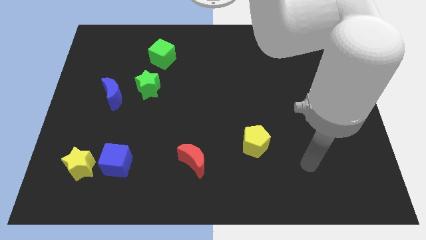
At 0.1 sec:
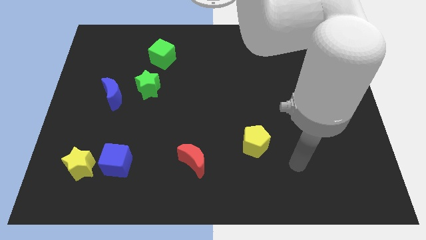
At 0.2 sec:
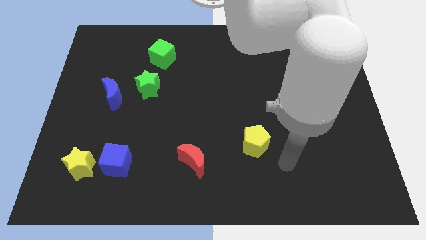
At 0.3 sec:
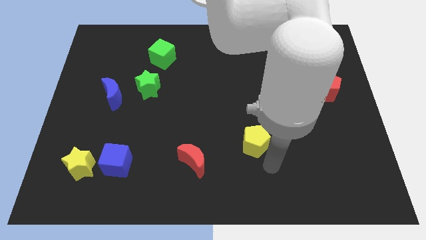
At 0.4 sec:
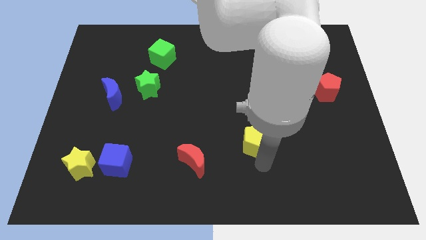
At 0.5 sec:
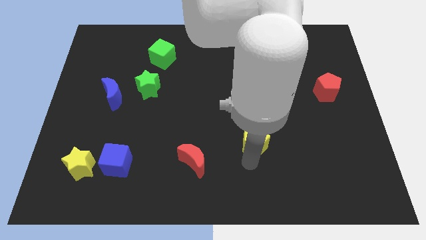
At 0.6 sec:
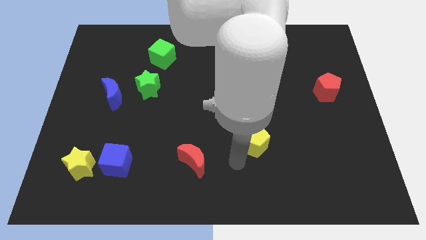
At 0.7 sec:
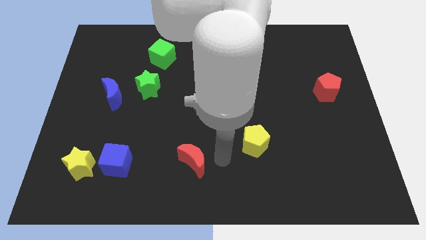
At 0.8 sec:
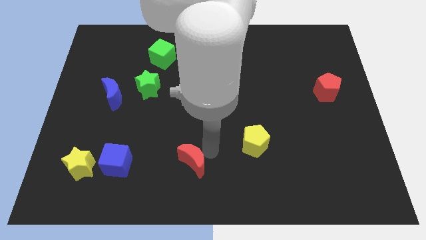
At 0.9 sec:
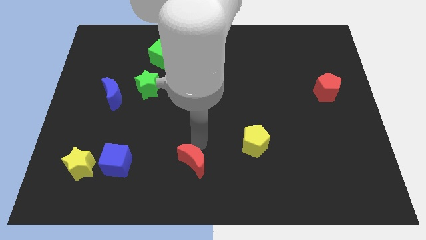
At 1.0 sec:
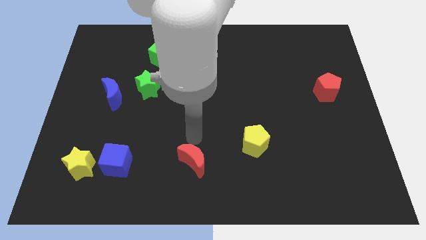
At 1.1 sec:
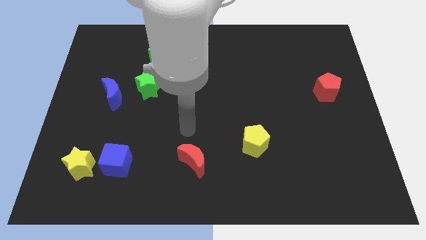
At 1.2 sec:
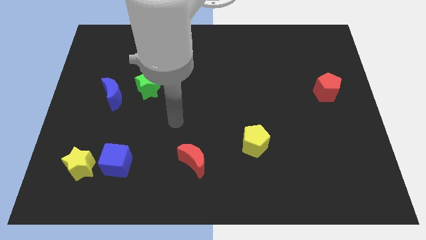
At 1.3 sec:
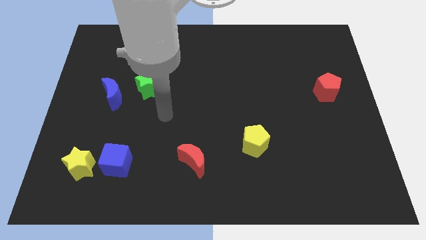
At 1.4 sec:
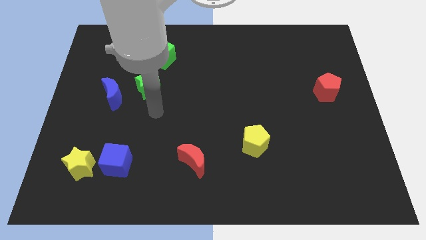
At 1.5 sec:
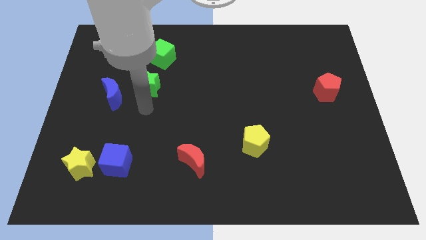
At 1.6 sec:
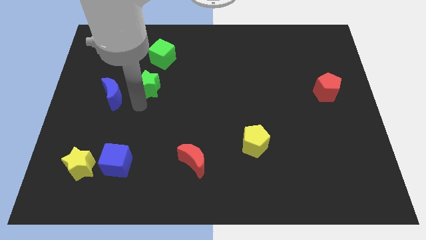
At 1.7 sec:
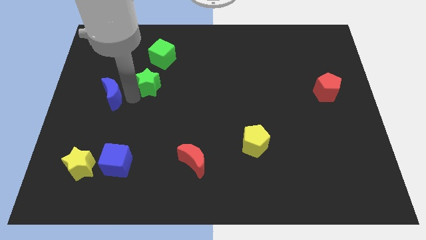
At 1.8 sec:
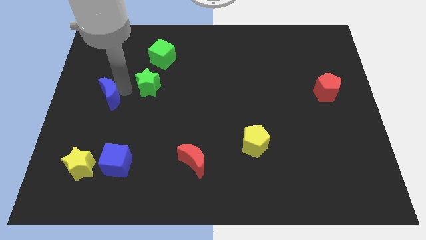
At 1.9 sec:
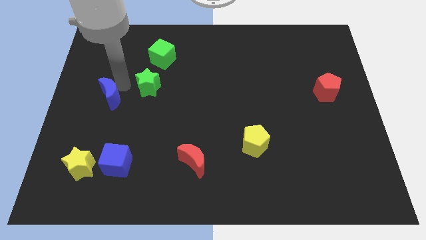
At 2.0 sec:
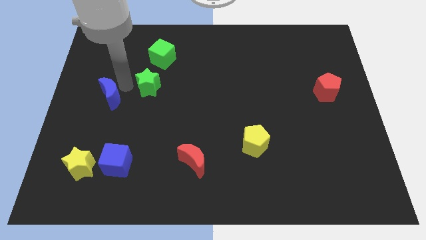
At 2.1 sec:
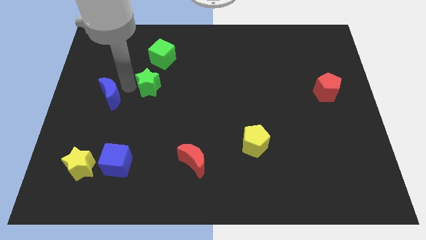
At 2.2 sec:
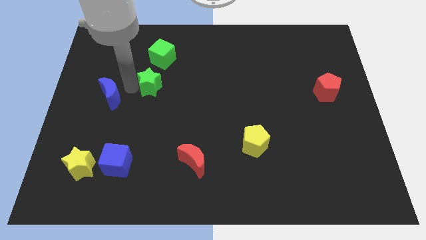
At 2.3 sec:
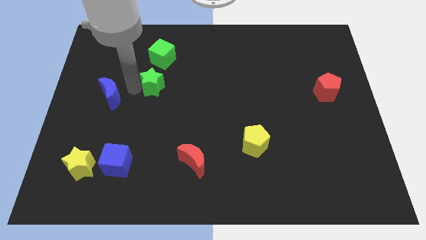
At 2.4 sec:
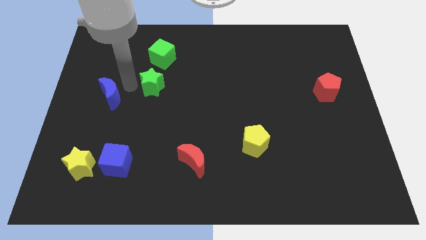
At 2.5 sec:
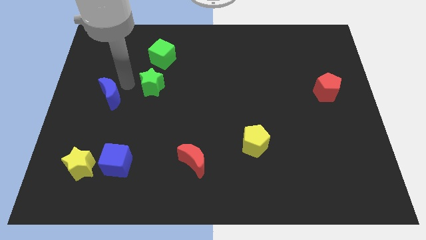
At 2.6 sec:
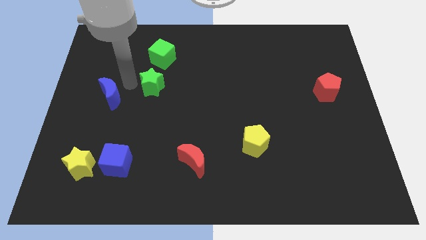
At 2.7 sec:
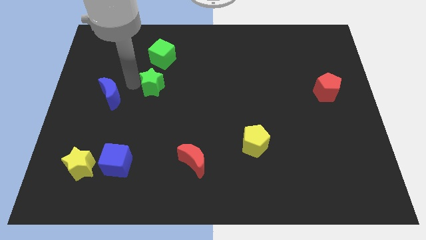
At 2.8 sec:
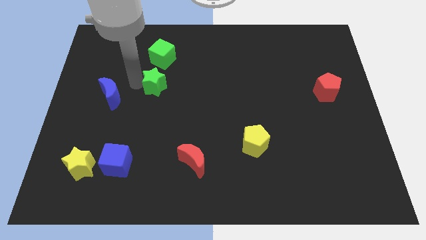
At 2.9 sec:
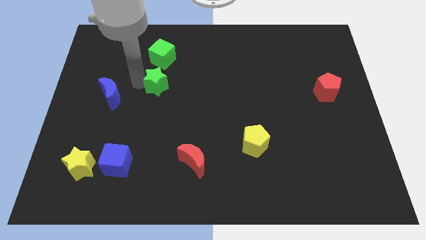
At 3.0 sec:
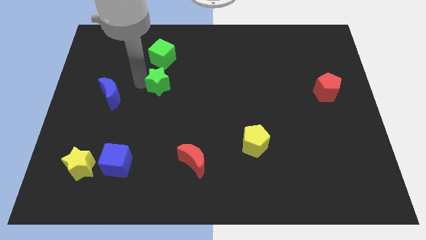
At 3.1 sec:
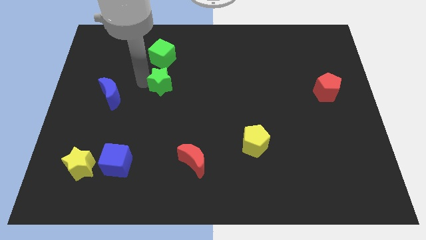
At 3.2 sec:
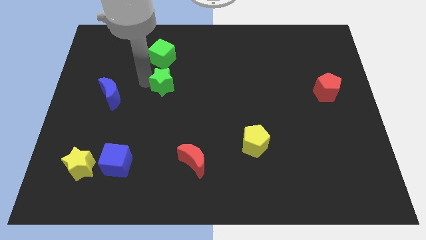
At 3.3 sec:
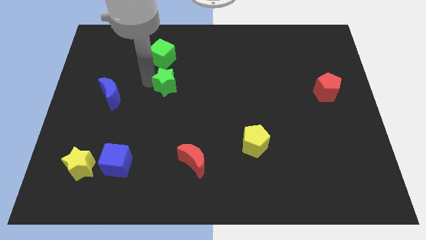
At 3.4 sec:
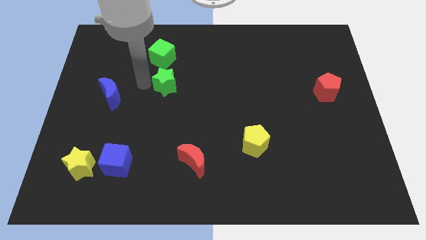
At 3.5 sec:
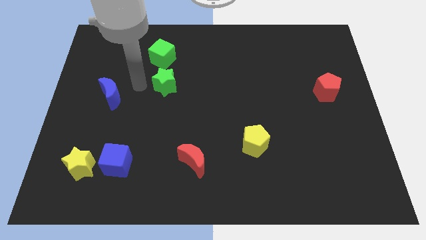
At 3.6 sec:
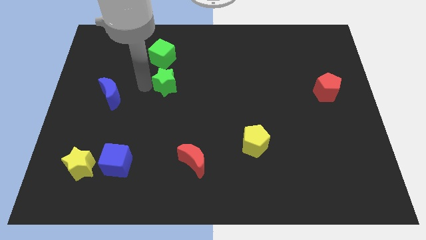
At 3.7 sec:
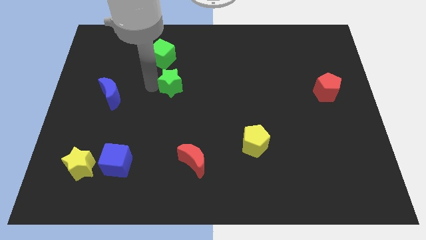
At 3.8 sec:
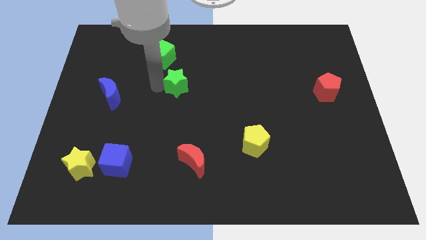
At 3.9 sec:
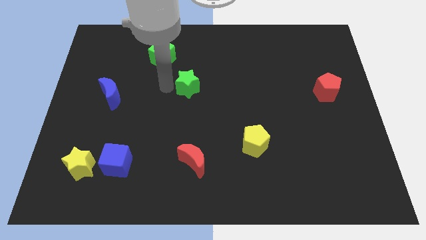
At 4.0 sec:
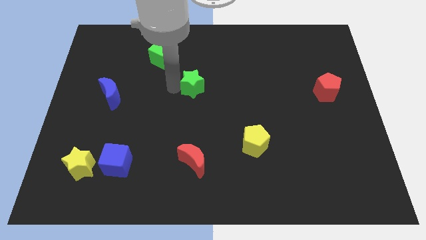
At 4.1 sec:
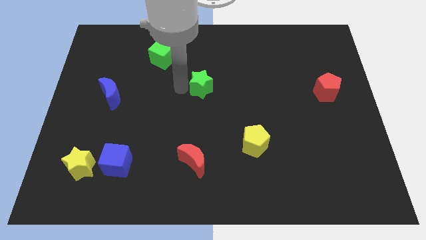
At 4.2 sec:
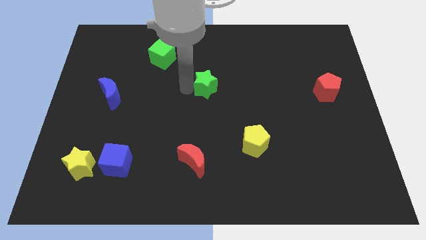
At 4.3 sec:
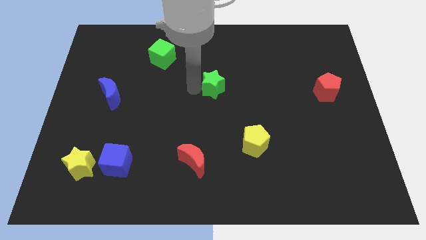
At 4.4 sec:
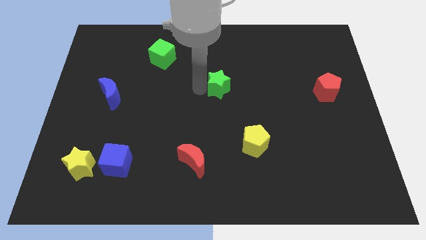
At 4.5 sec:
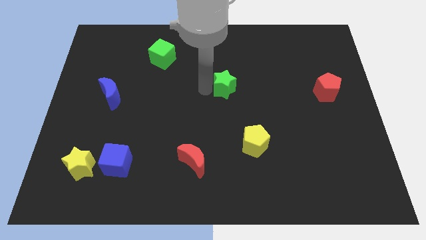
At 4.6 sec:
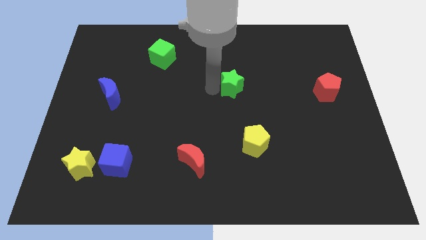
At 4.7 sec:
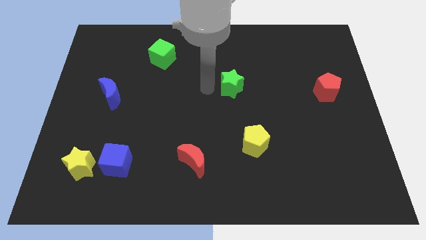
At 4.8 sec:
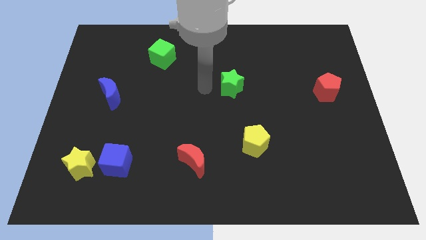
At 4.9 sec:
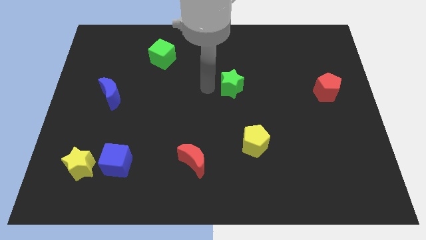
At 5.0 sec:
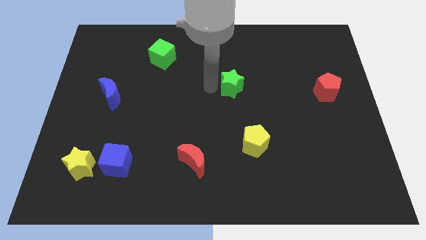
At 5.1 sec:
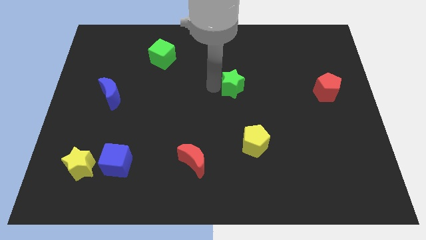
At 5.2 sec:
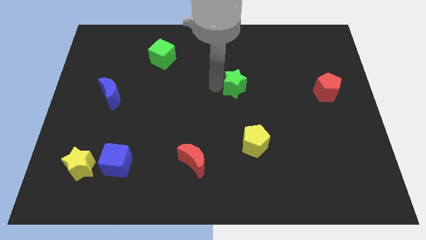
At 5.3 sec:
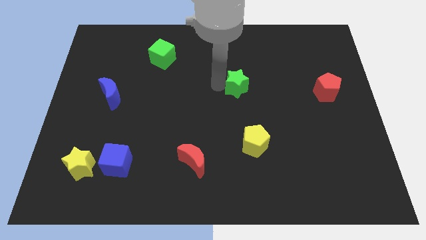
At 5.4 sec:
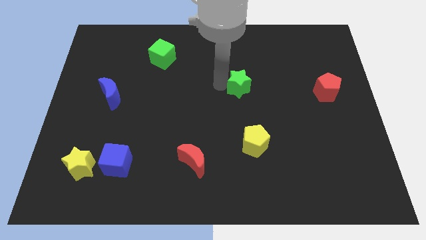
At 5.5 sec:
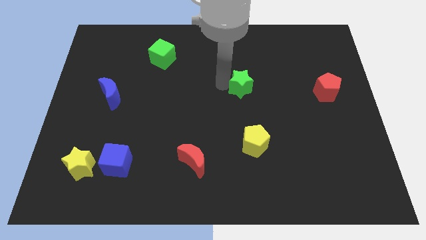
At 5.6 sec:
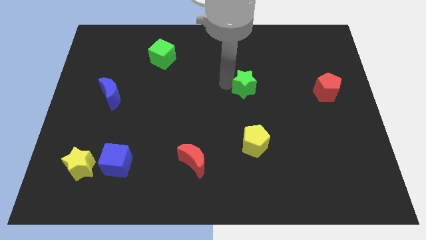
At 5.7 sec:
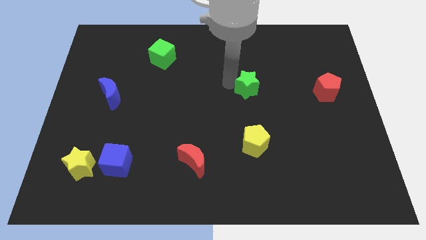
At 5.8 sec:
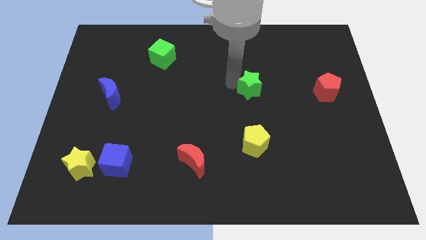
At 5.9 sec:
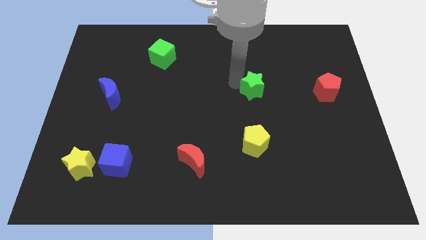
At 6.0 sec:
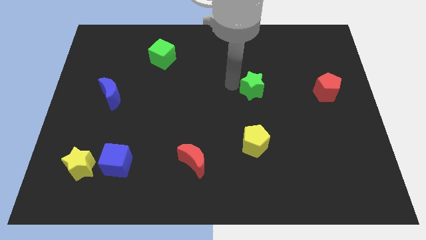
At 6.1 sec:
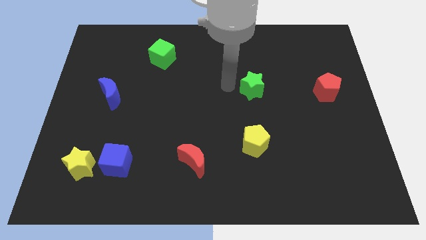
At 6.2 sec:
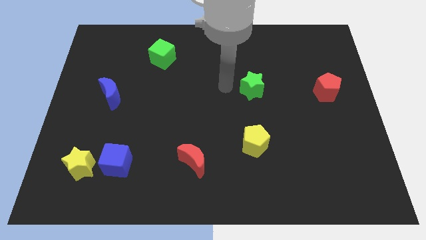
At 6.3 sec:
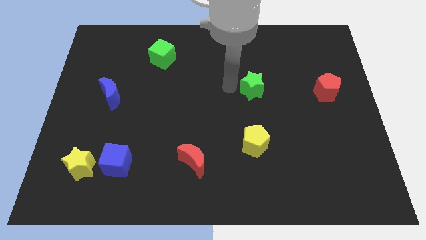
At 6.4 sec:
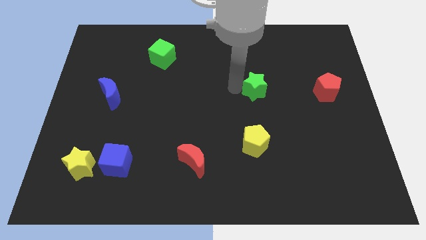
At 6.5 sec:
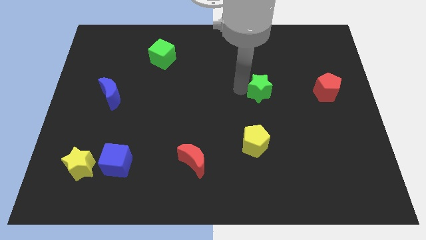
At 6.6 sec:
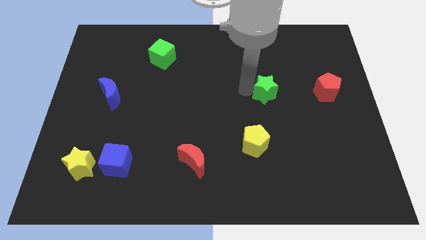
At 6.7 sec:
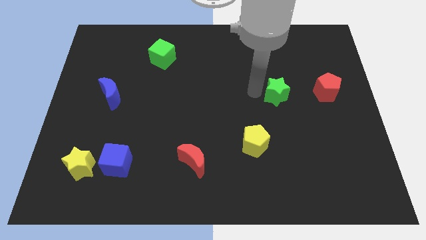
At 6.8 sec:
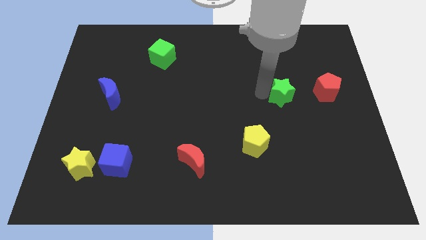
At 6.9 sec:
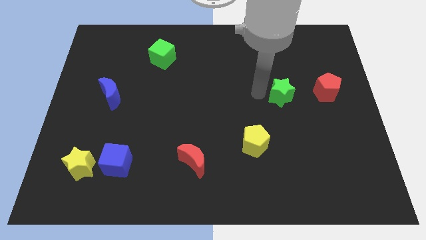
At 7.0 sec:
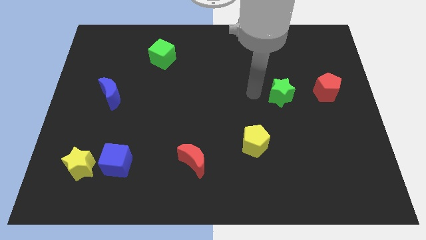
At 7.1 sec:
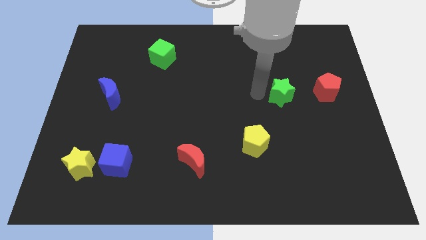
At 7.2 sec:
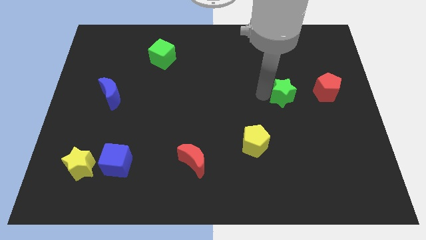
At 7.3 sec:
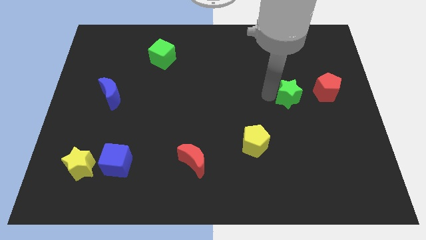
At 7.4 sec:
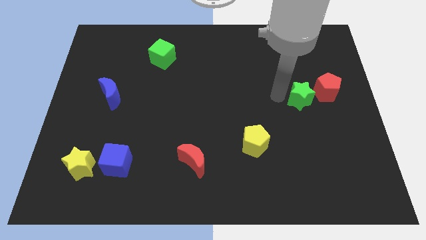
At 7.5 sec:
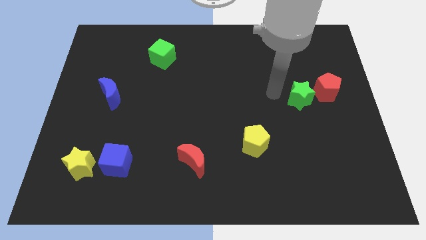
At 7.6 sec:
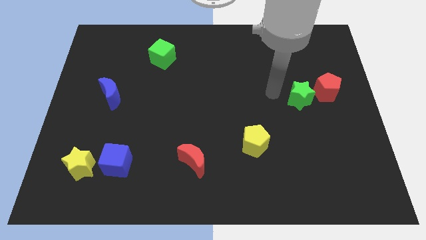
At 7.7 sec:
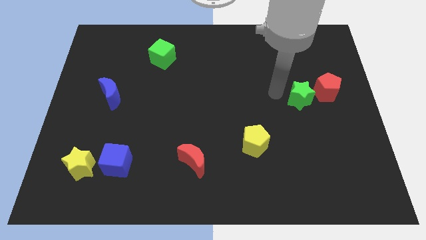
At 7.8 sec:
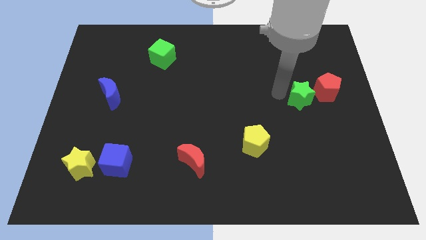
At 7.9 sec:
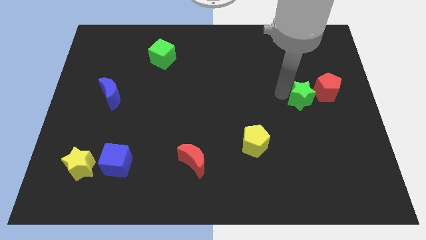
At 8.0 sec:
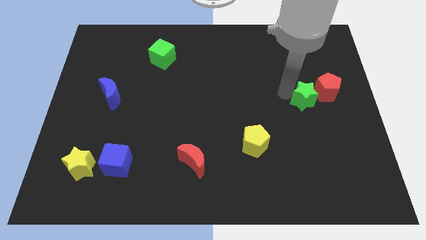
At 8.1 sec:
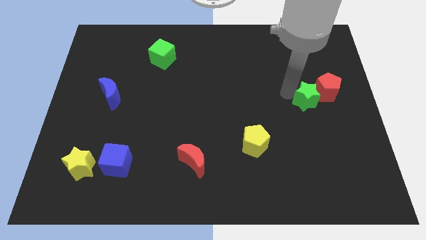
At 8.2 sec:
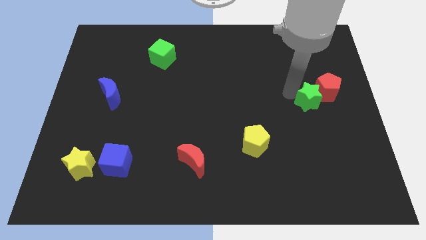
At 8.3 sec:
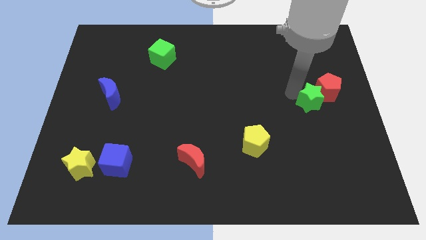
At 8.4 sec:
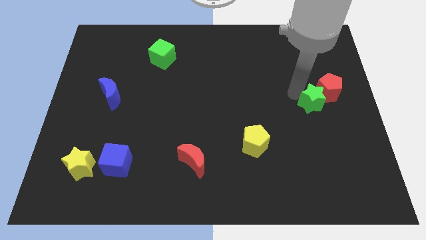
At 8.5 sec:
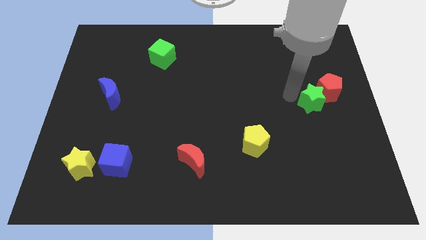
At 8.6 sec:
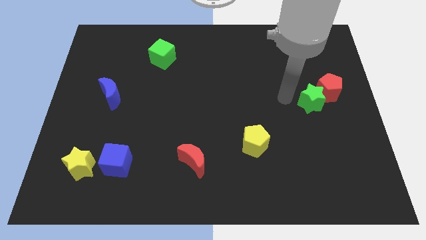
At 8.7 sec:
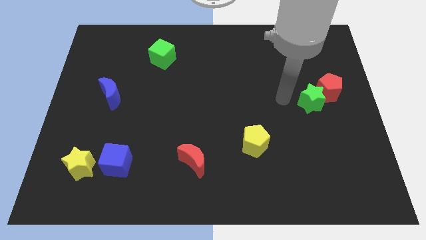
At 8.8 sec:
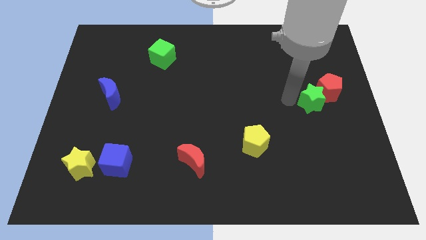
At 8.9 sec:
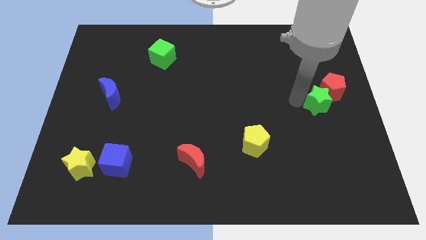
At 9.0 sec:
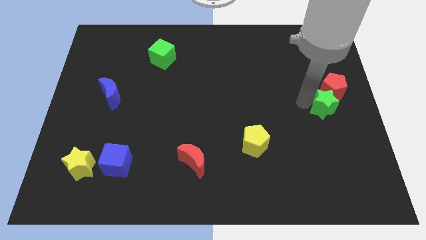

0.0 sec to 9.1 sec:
slide the green star to the center right
